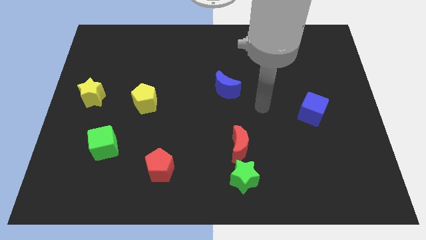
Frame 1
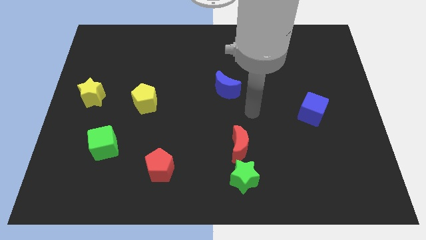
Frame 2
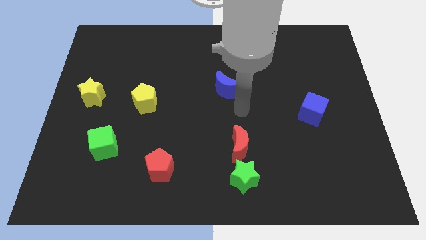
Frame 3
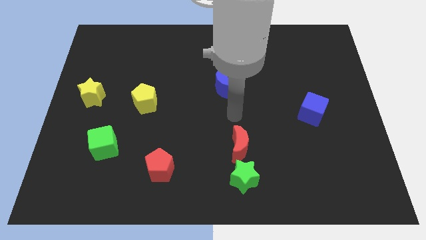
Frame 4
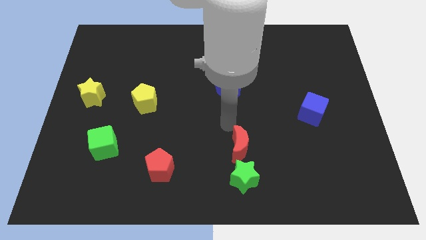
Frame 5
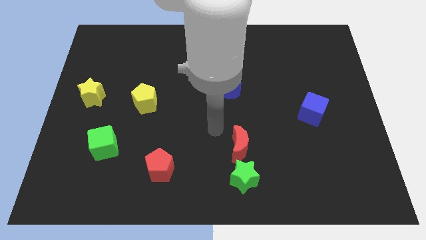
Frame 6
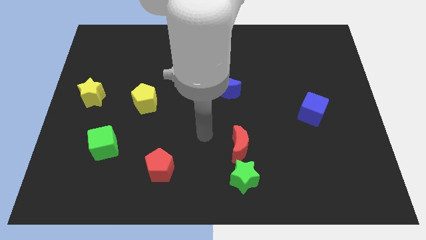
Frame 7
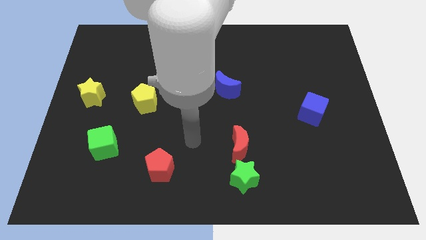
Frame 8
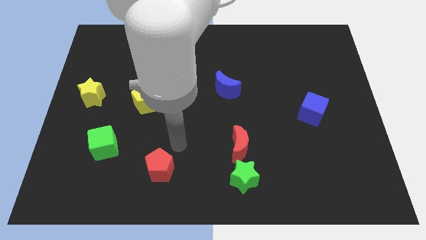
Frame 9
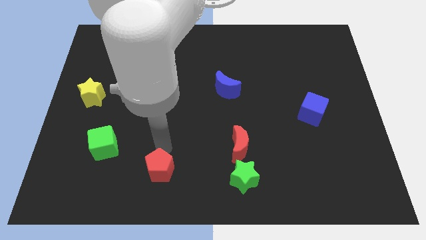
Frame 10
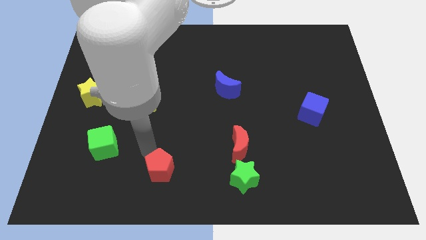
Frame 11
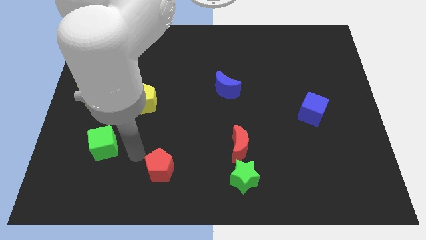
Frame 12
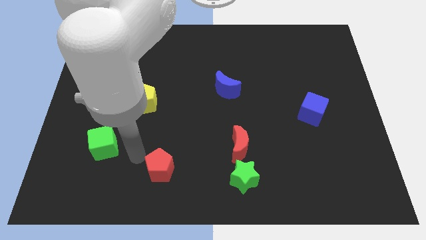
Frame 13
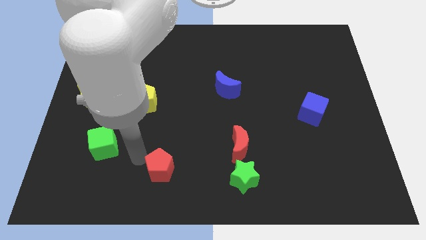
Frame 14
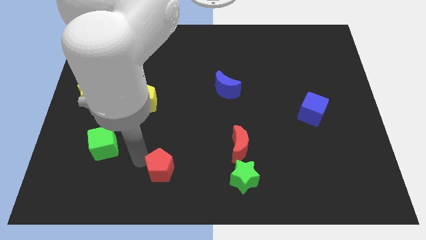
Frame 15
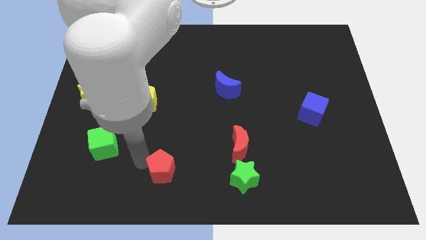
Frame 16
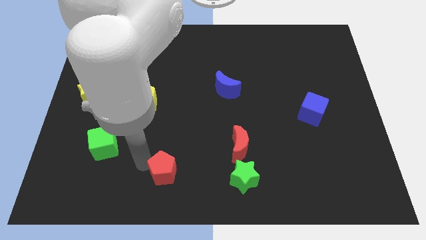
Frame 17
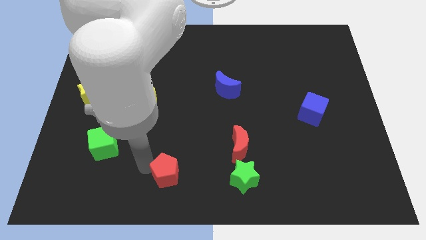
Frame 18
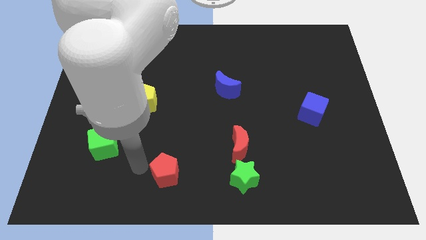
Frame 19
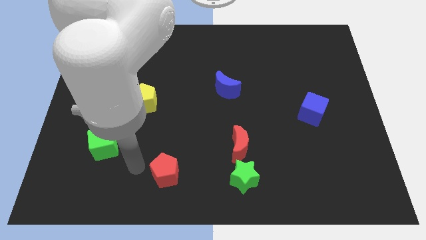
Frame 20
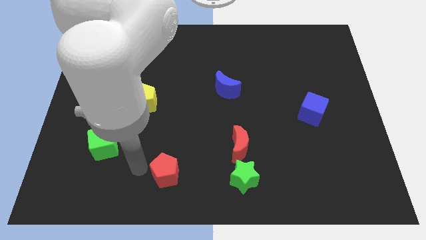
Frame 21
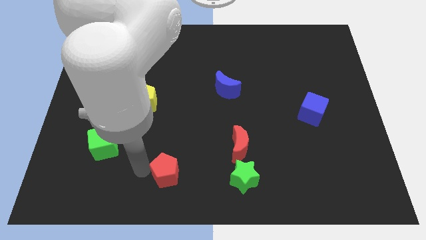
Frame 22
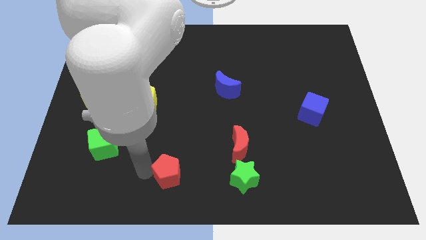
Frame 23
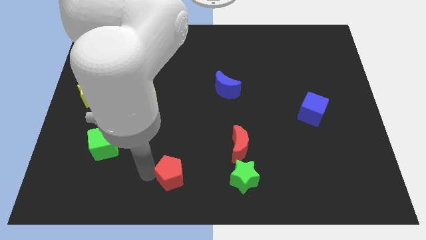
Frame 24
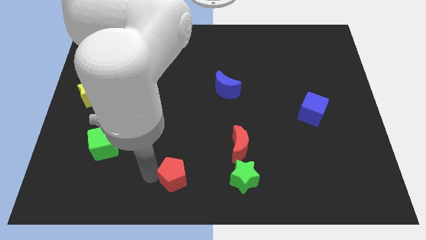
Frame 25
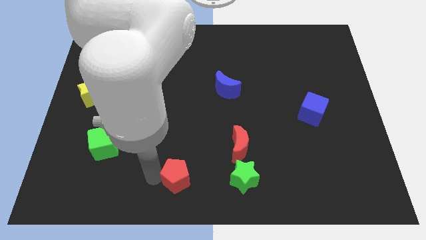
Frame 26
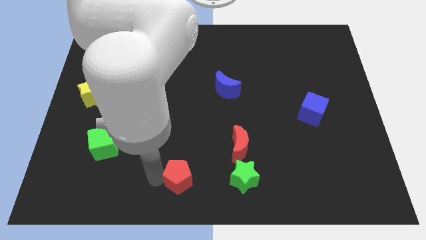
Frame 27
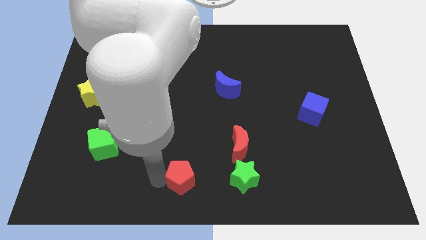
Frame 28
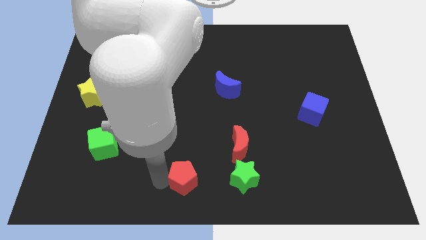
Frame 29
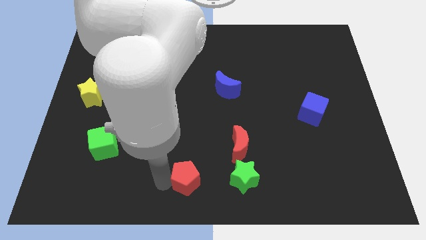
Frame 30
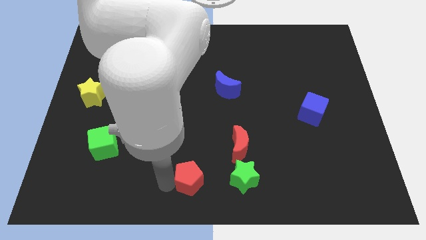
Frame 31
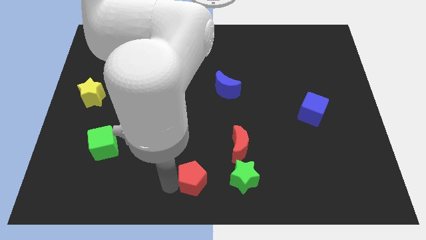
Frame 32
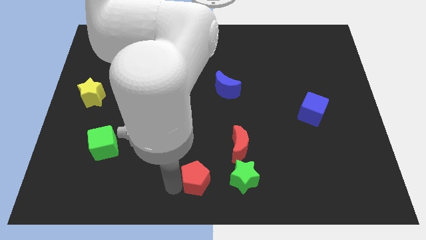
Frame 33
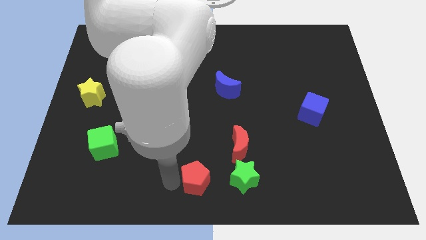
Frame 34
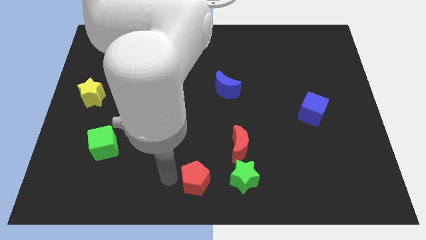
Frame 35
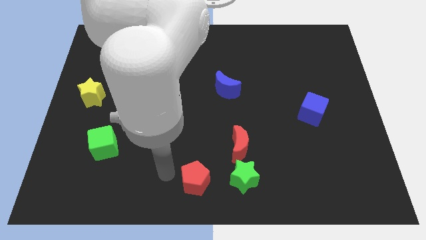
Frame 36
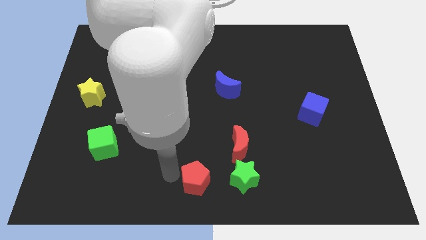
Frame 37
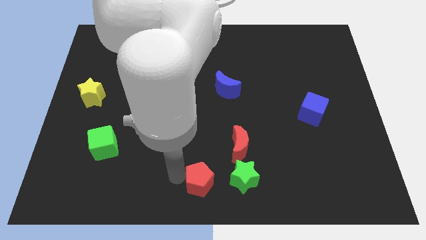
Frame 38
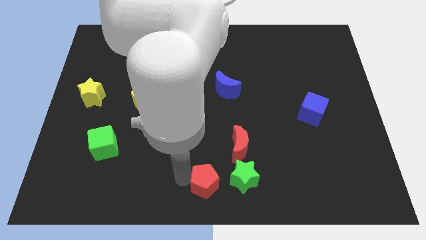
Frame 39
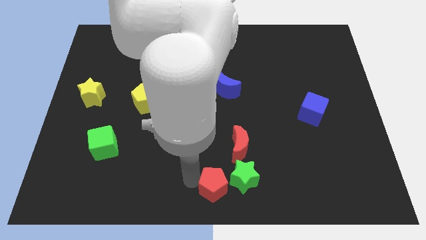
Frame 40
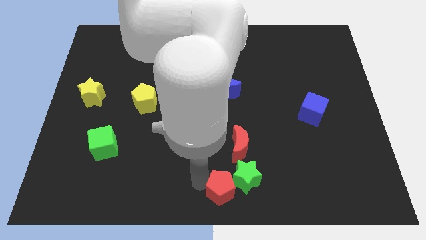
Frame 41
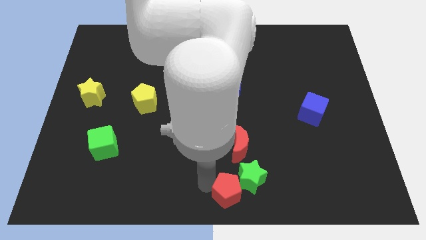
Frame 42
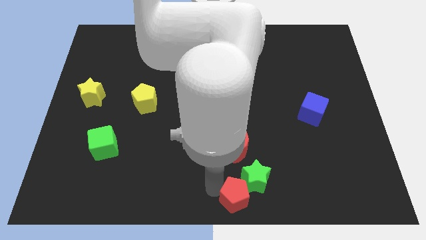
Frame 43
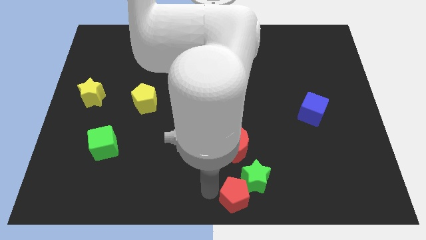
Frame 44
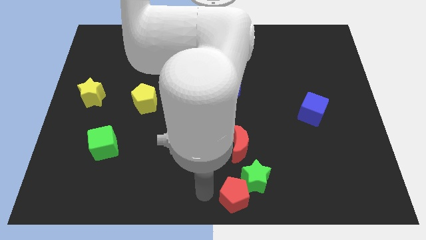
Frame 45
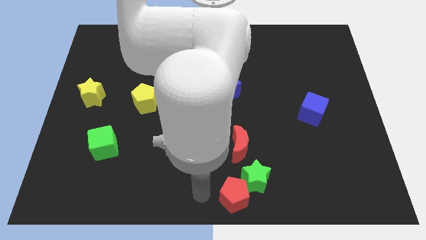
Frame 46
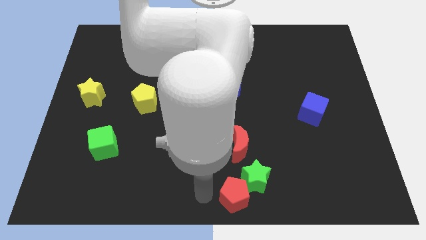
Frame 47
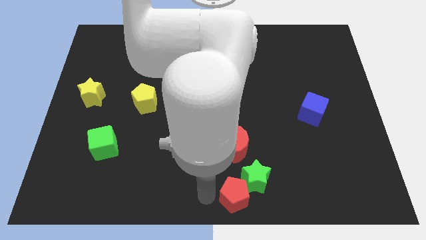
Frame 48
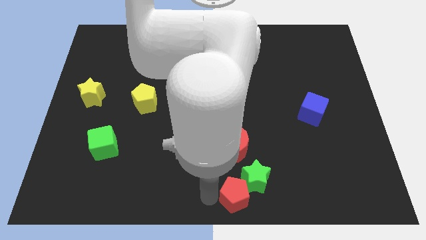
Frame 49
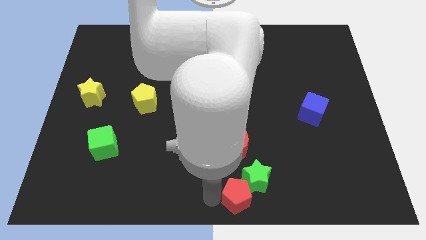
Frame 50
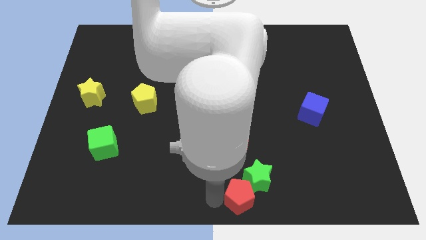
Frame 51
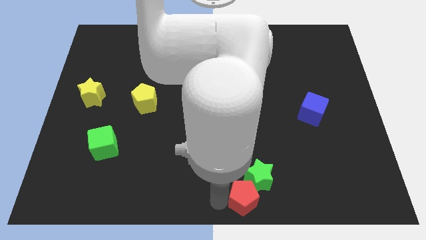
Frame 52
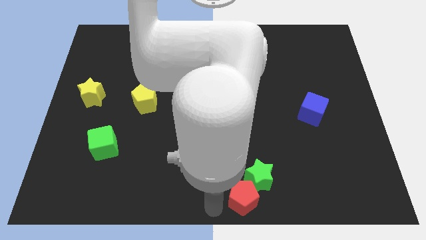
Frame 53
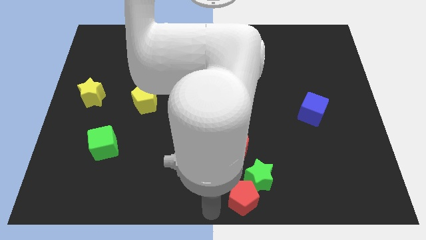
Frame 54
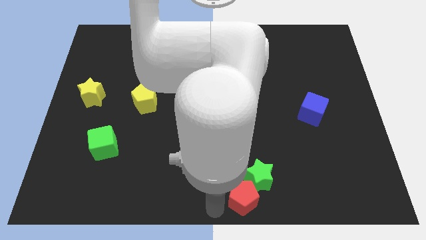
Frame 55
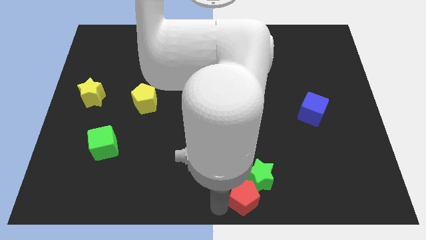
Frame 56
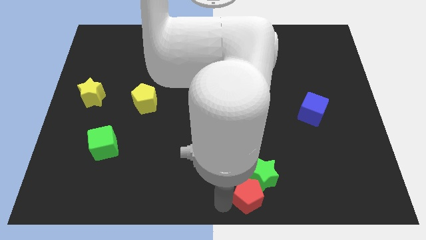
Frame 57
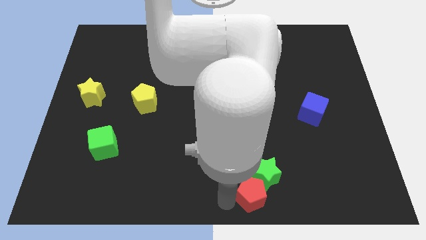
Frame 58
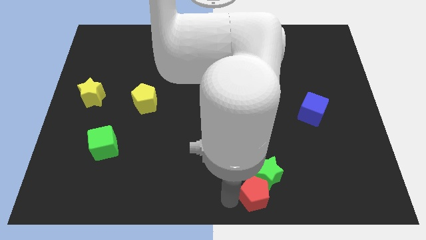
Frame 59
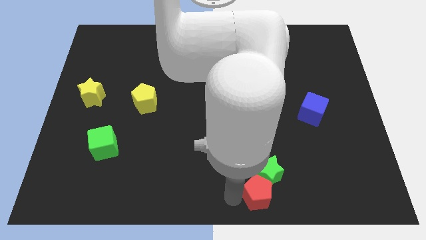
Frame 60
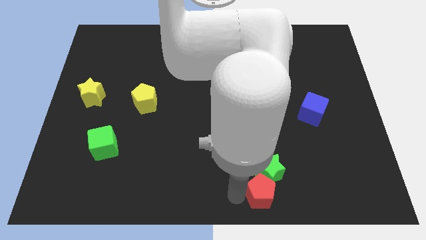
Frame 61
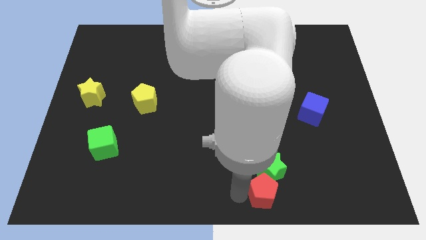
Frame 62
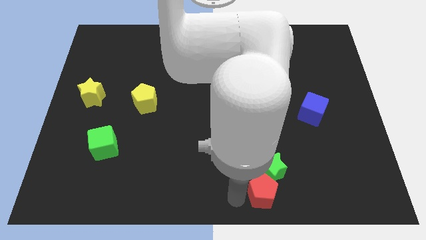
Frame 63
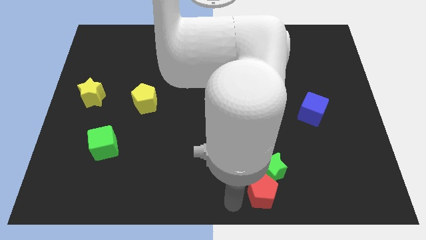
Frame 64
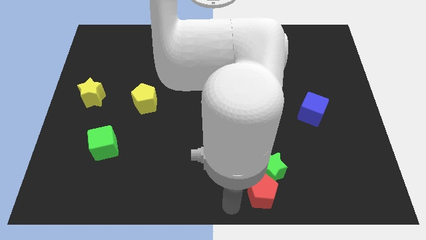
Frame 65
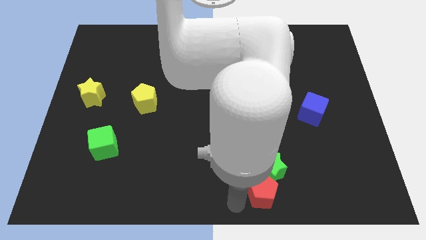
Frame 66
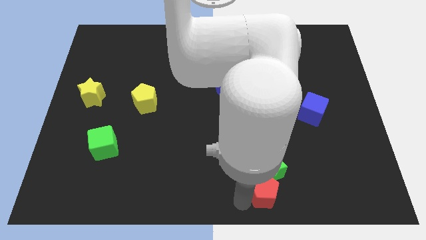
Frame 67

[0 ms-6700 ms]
push the red pentagon right

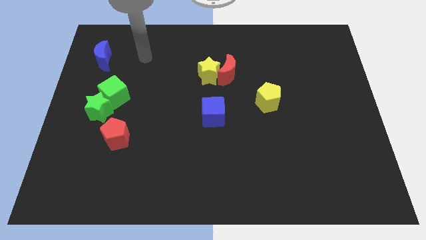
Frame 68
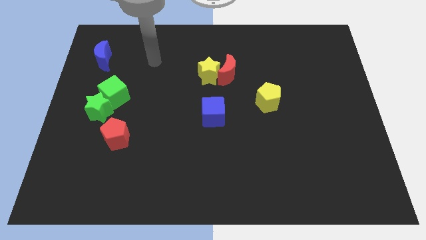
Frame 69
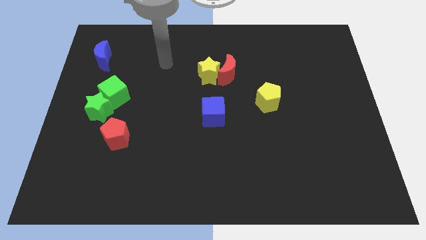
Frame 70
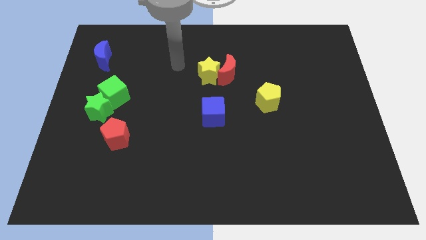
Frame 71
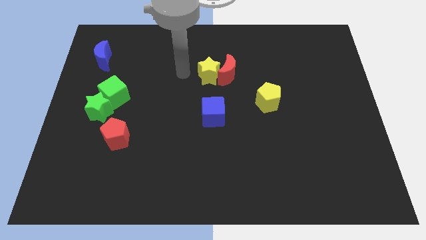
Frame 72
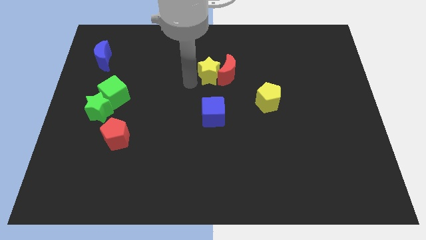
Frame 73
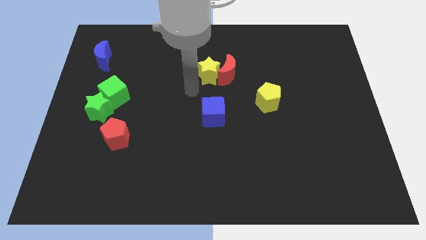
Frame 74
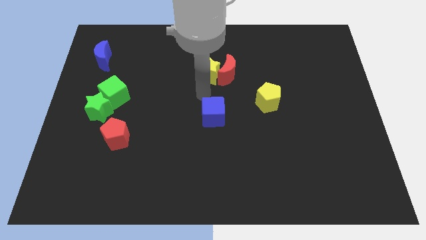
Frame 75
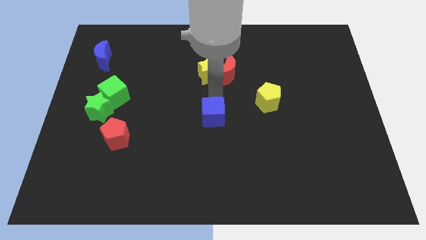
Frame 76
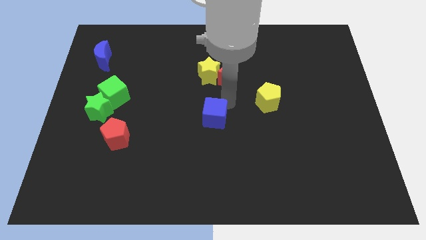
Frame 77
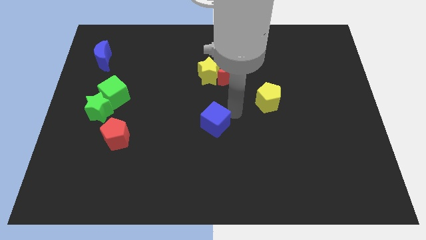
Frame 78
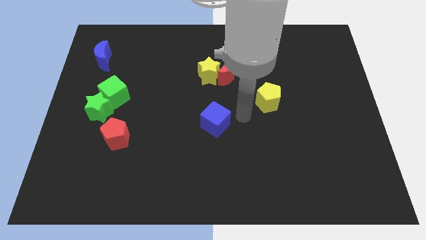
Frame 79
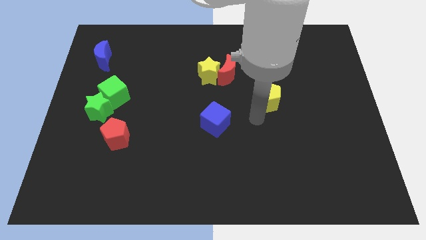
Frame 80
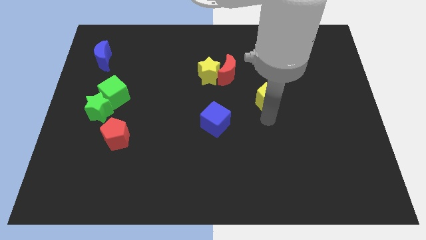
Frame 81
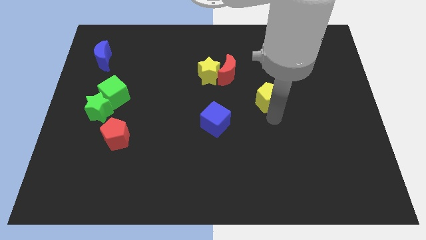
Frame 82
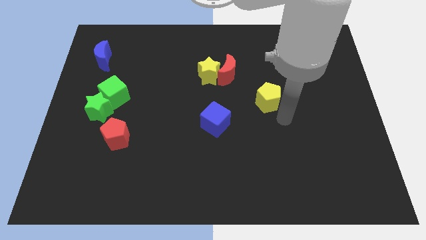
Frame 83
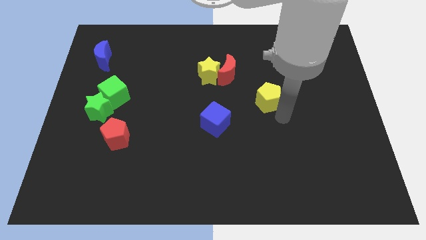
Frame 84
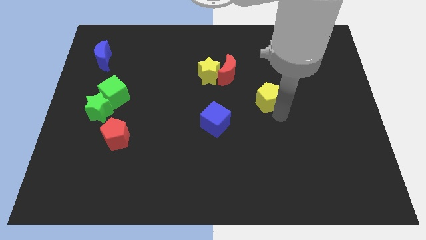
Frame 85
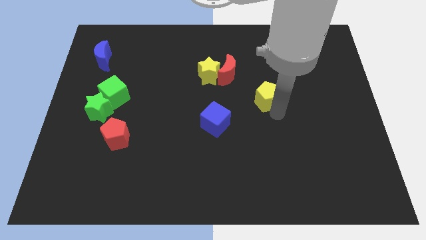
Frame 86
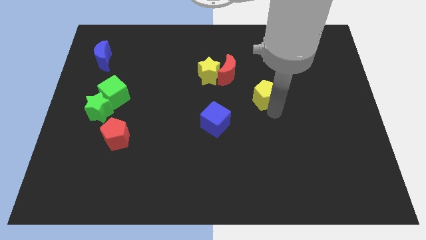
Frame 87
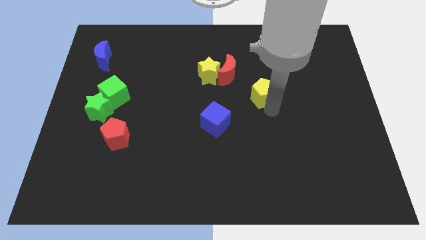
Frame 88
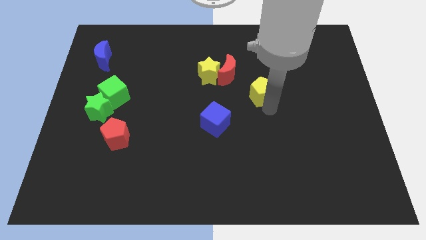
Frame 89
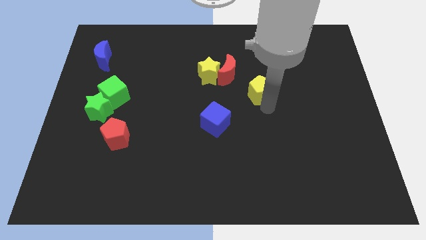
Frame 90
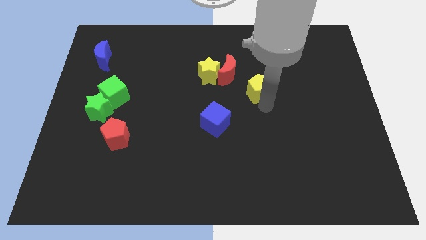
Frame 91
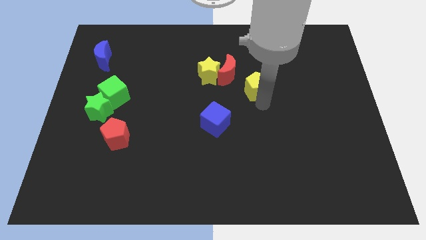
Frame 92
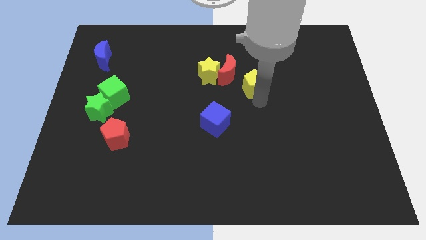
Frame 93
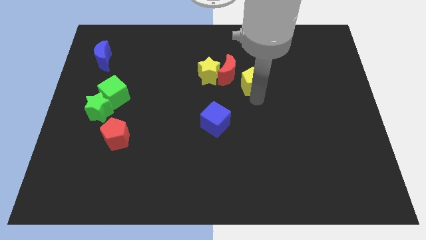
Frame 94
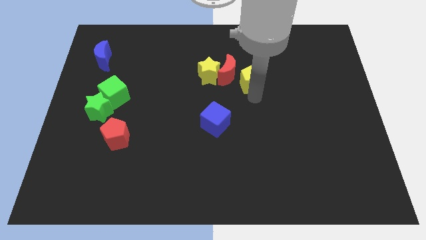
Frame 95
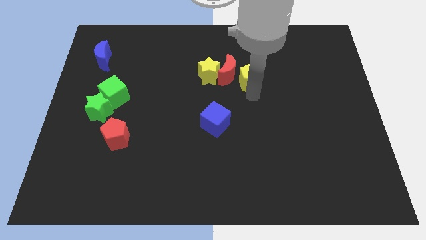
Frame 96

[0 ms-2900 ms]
move the yellow pentagon diagonally up and left a bit
